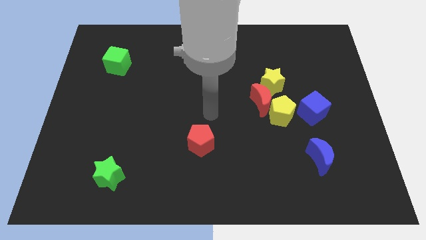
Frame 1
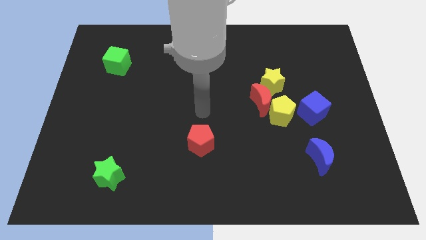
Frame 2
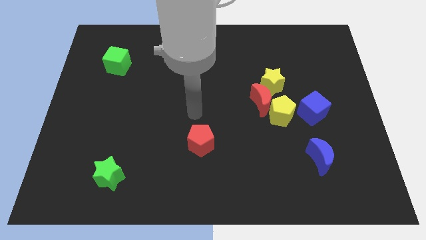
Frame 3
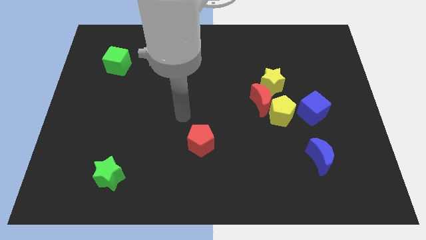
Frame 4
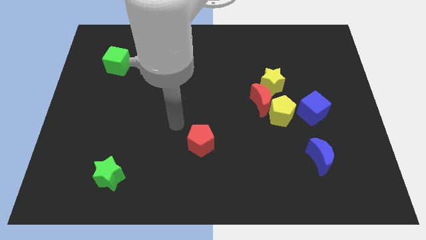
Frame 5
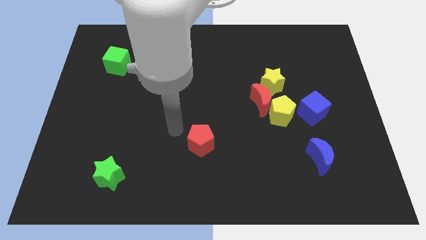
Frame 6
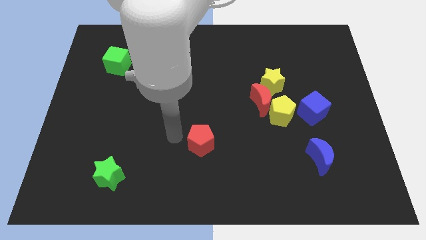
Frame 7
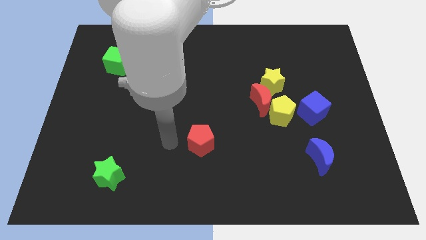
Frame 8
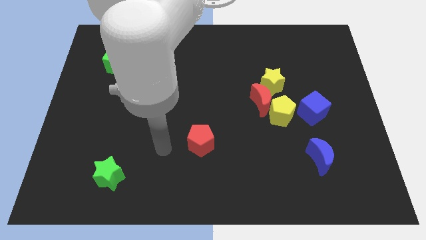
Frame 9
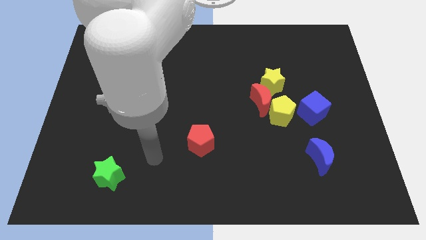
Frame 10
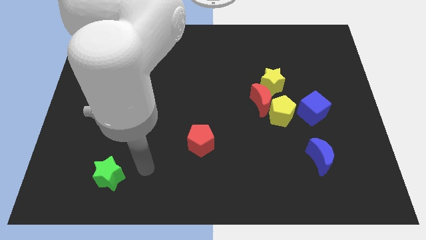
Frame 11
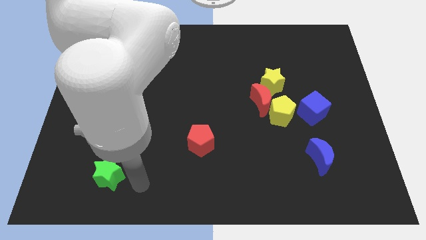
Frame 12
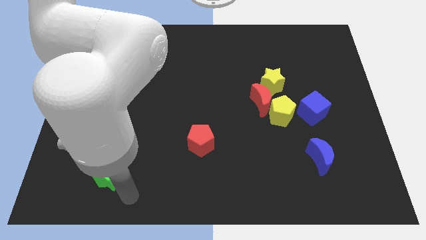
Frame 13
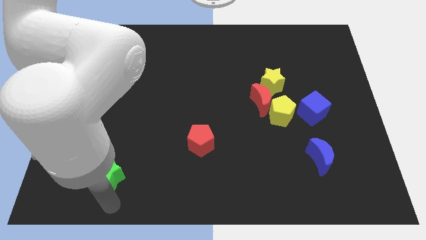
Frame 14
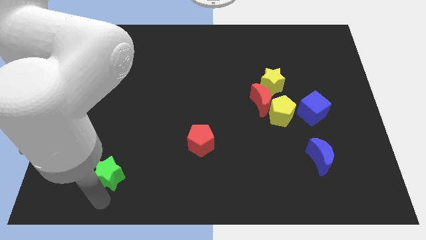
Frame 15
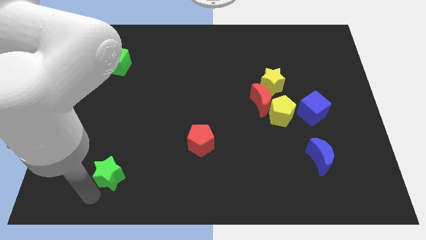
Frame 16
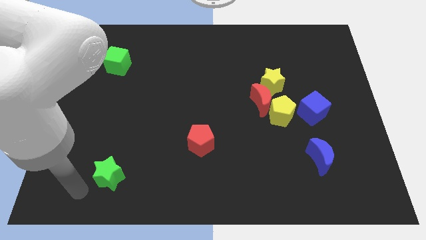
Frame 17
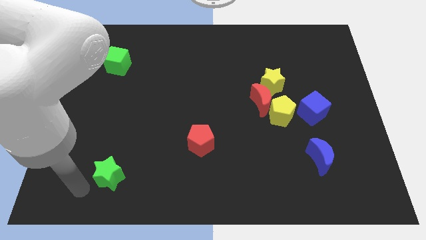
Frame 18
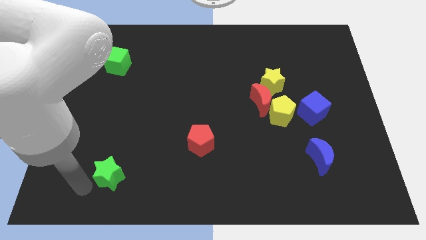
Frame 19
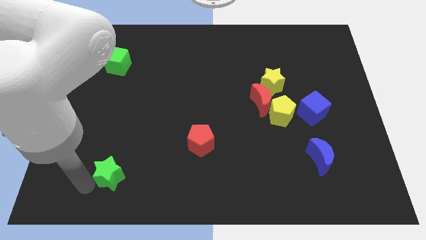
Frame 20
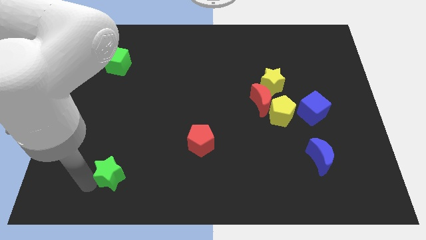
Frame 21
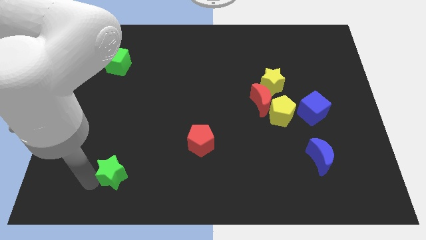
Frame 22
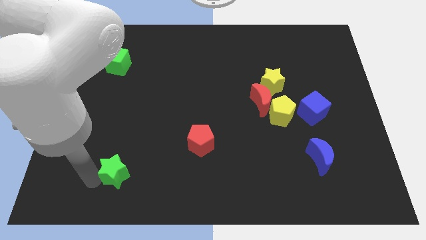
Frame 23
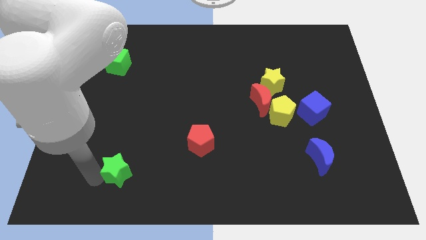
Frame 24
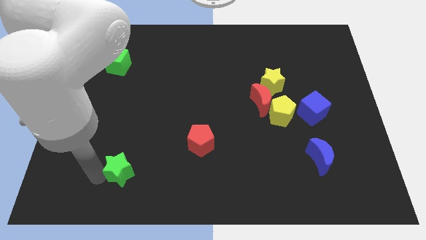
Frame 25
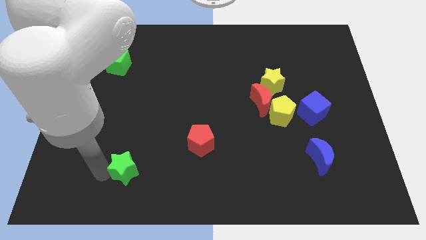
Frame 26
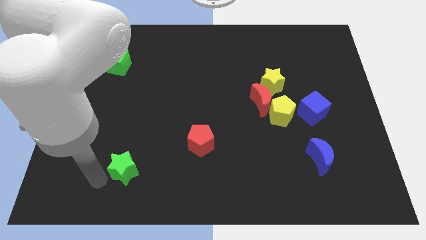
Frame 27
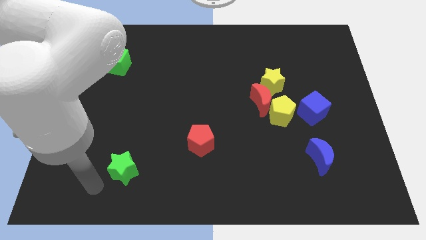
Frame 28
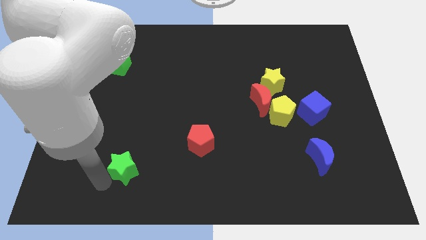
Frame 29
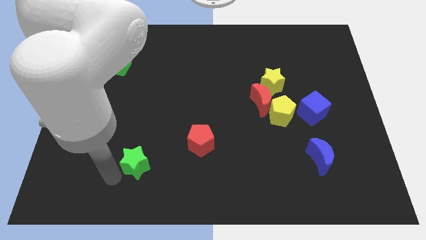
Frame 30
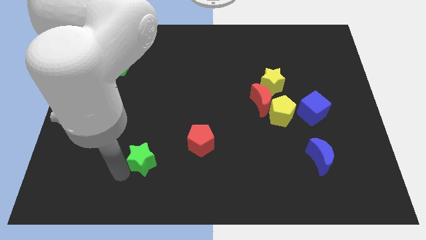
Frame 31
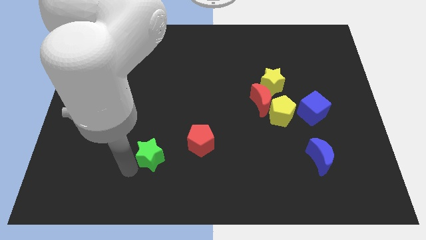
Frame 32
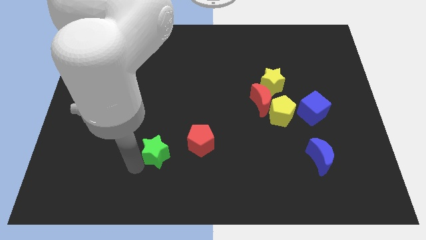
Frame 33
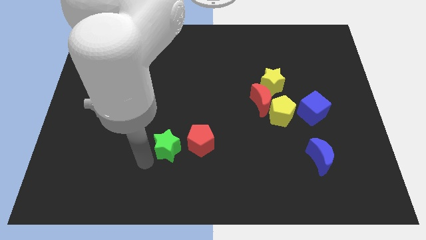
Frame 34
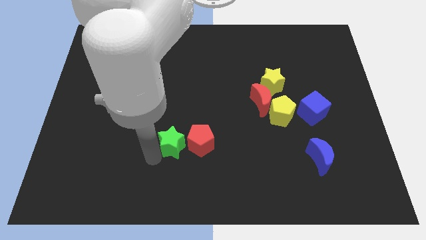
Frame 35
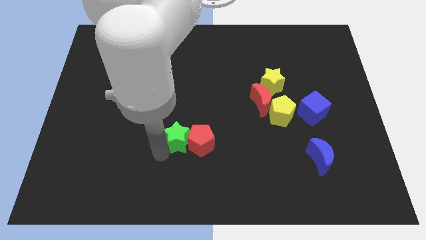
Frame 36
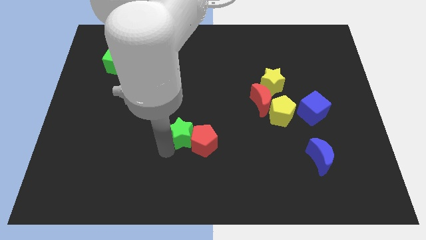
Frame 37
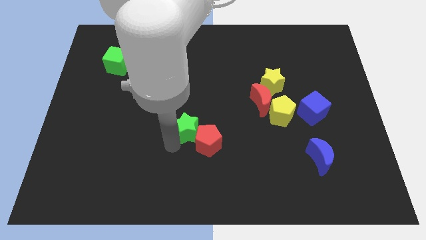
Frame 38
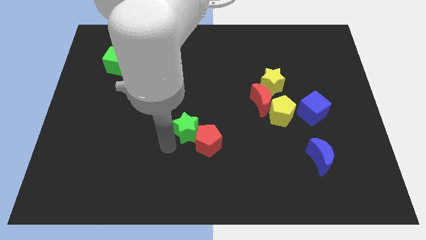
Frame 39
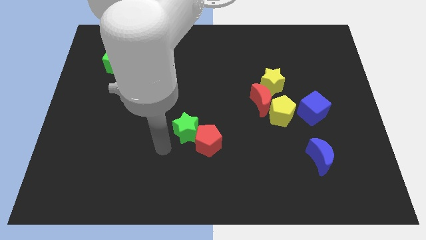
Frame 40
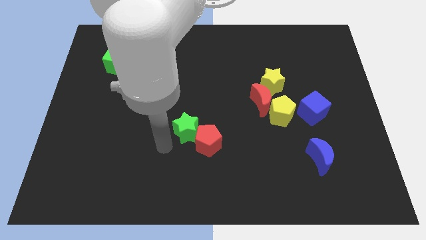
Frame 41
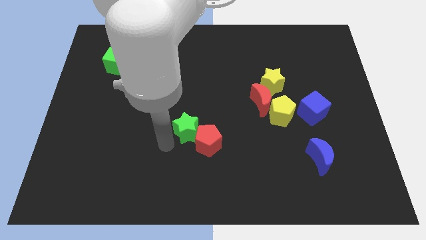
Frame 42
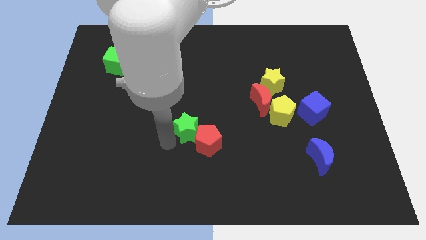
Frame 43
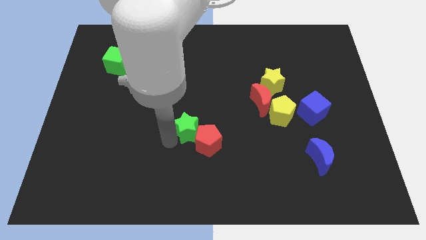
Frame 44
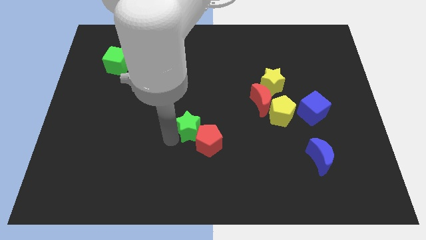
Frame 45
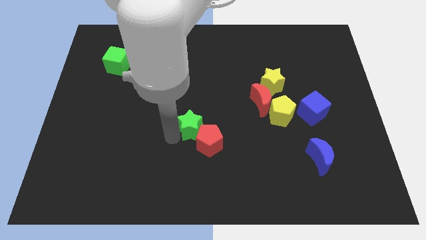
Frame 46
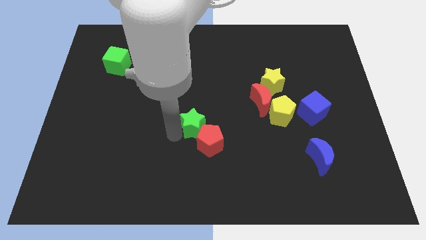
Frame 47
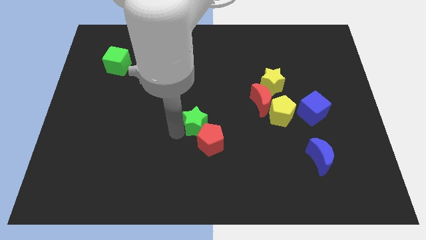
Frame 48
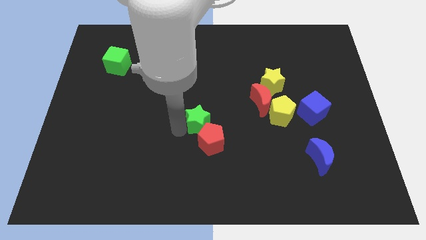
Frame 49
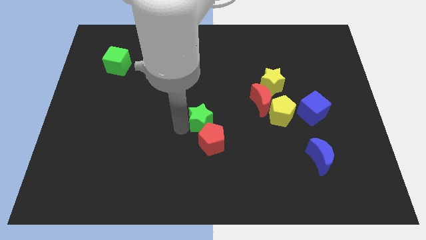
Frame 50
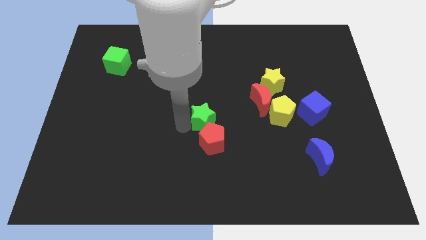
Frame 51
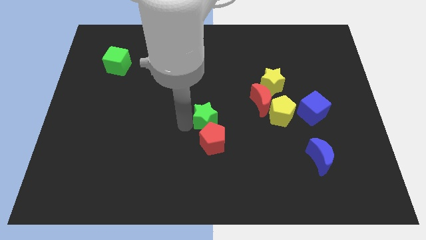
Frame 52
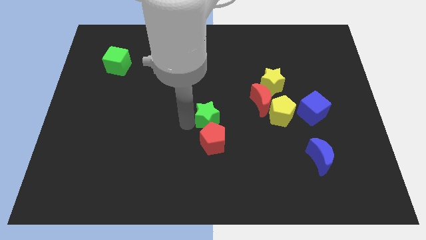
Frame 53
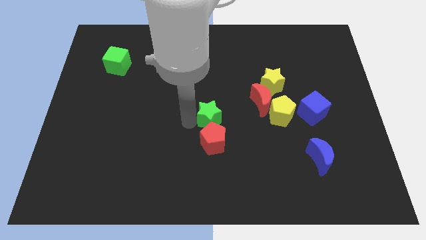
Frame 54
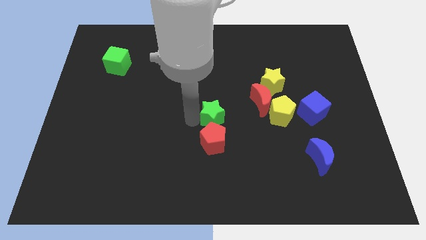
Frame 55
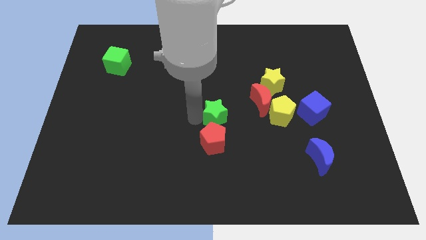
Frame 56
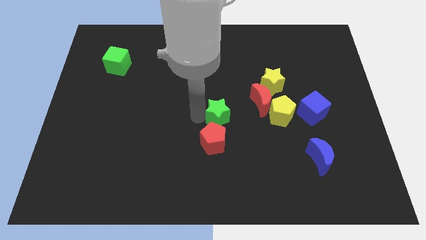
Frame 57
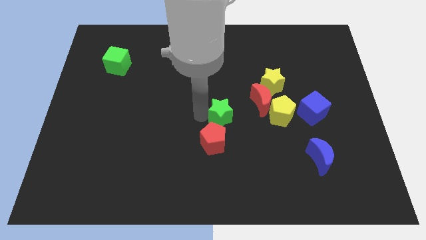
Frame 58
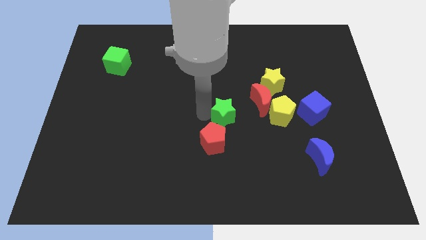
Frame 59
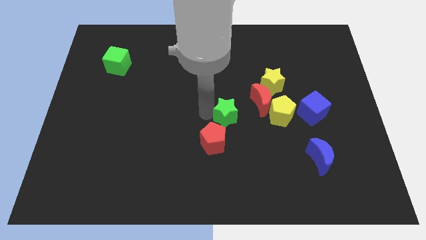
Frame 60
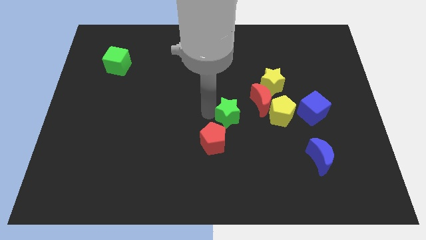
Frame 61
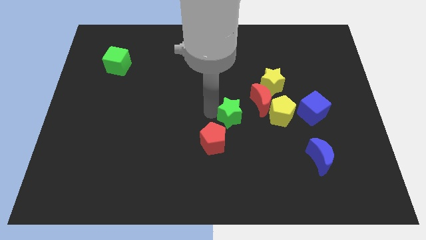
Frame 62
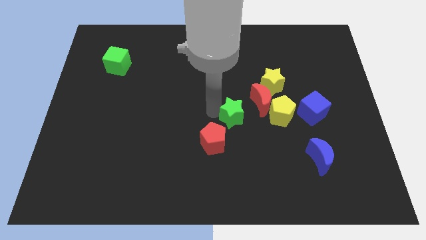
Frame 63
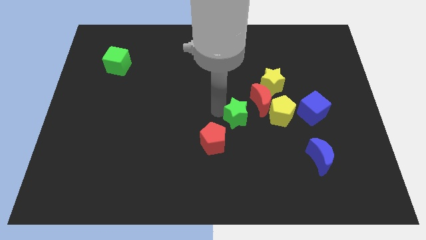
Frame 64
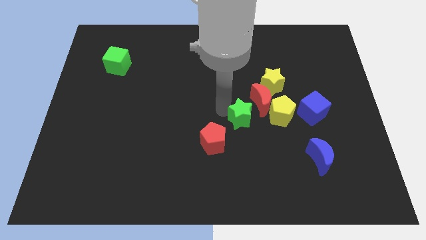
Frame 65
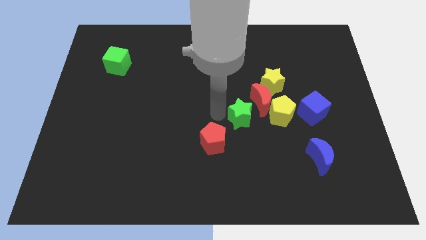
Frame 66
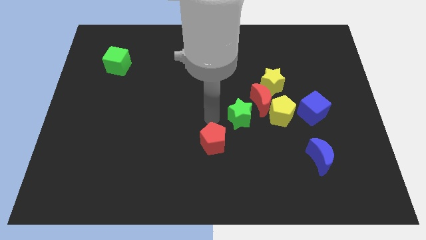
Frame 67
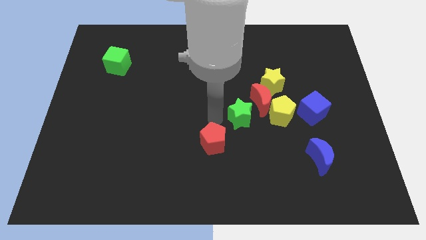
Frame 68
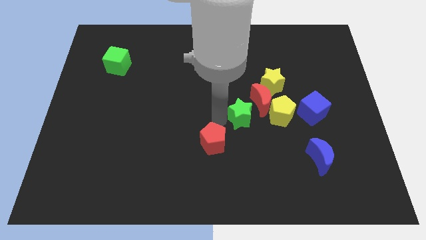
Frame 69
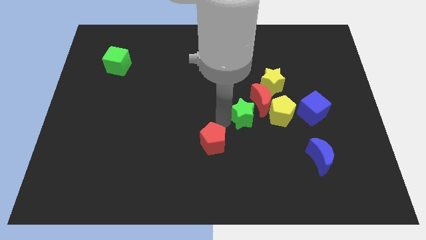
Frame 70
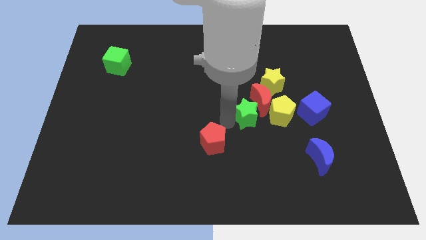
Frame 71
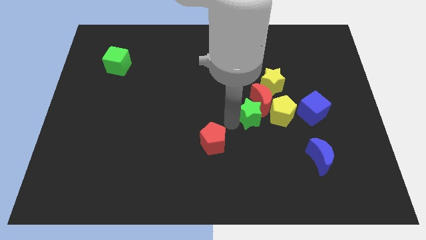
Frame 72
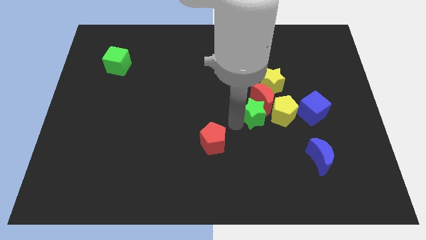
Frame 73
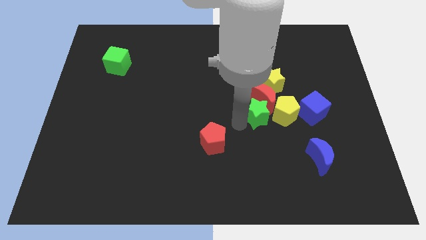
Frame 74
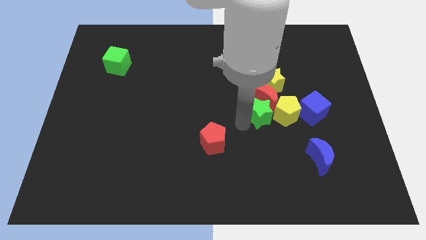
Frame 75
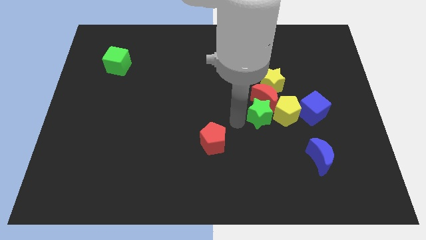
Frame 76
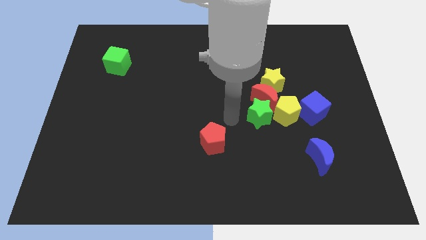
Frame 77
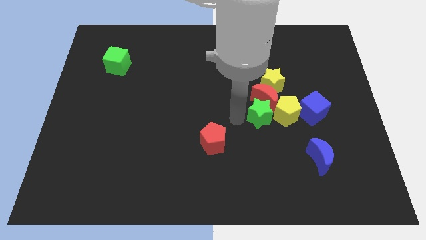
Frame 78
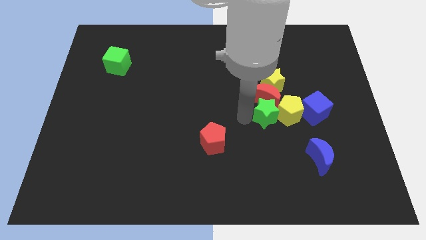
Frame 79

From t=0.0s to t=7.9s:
move the green star close to the yellow pentagon
